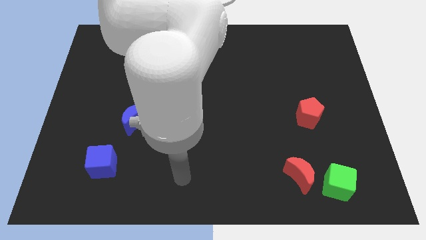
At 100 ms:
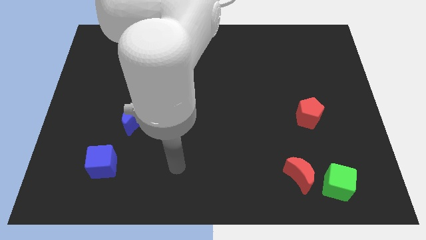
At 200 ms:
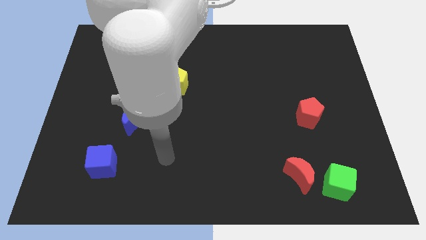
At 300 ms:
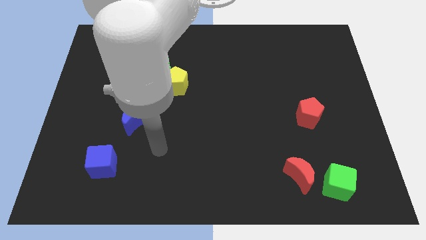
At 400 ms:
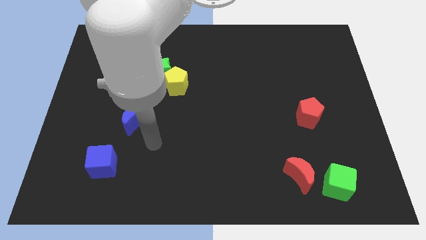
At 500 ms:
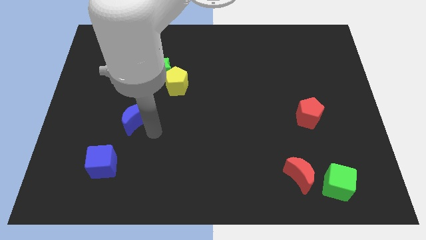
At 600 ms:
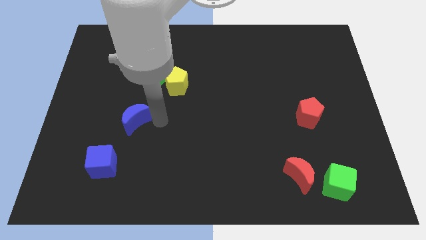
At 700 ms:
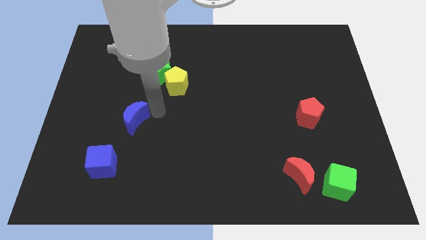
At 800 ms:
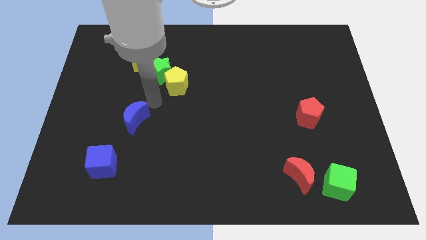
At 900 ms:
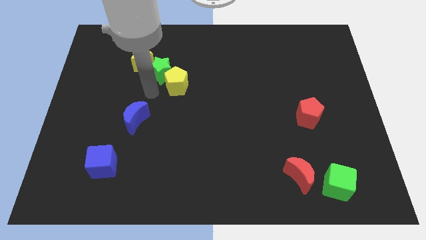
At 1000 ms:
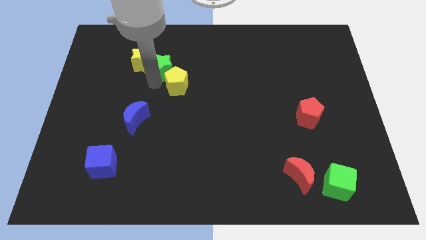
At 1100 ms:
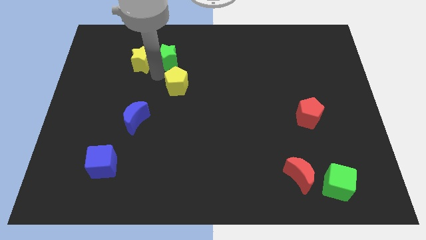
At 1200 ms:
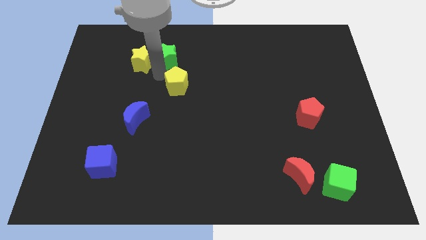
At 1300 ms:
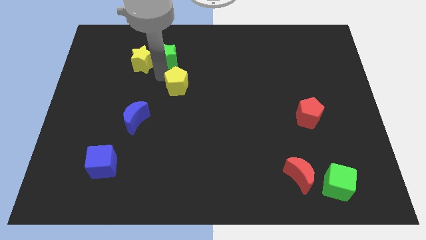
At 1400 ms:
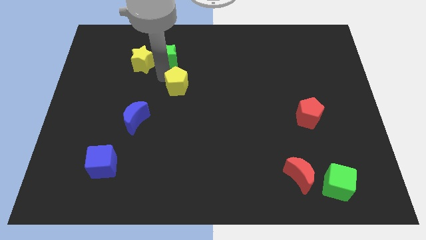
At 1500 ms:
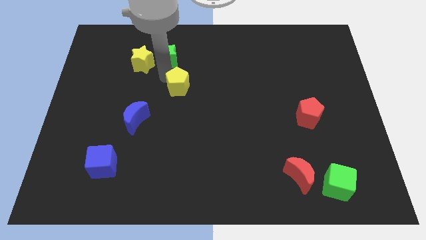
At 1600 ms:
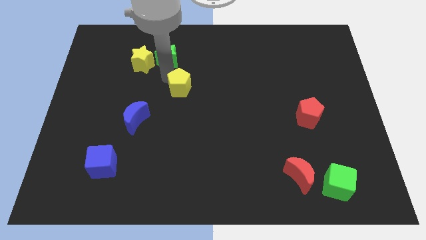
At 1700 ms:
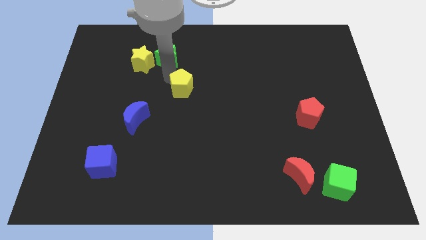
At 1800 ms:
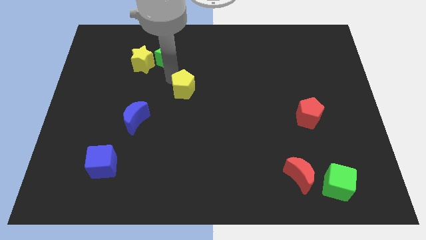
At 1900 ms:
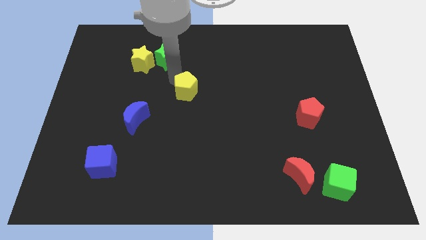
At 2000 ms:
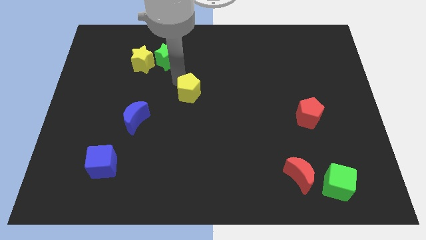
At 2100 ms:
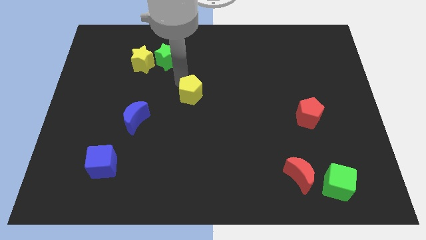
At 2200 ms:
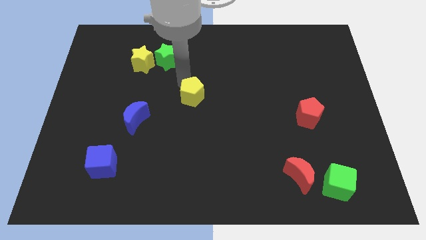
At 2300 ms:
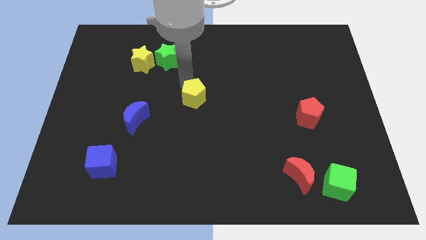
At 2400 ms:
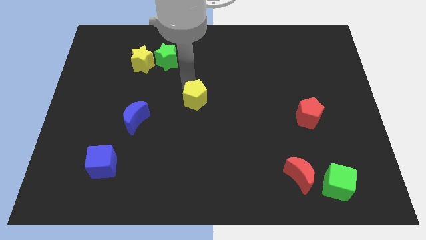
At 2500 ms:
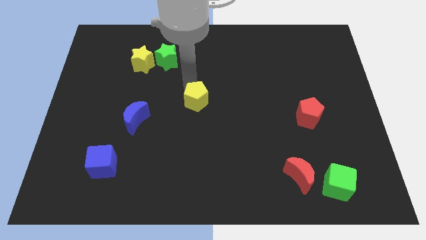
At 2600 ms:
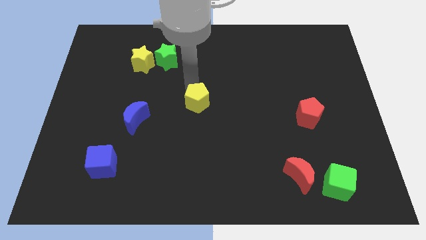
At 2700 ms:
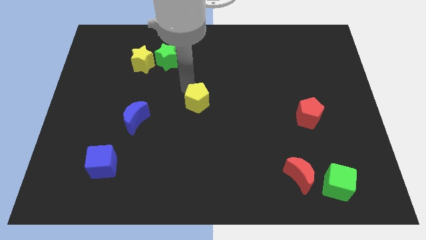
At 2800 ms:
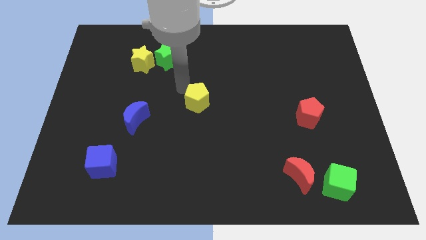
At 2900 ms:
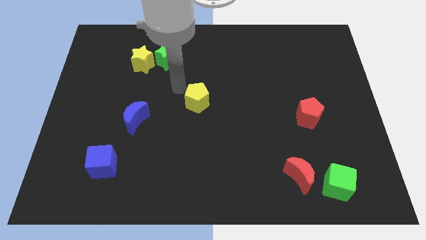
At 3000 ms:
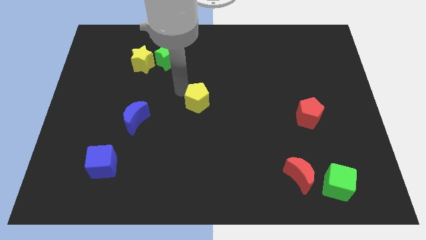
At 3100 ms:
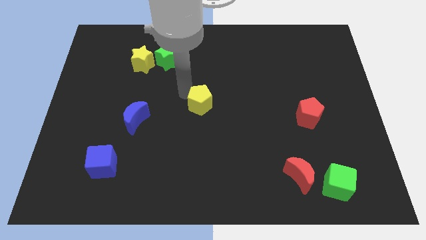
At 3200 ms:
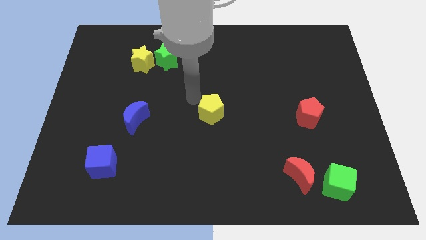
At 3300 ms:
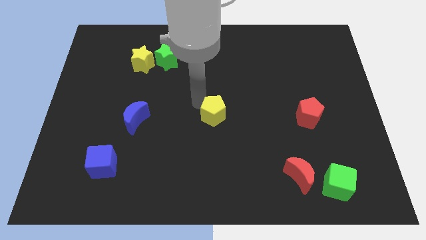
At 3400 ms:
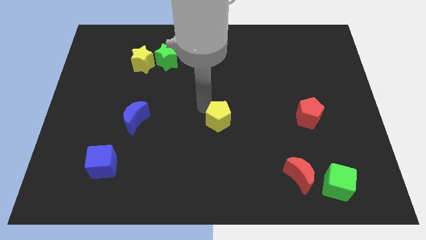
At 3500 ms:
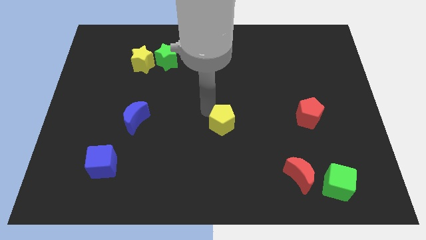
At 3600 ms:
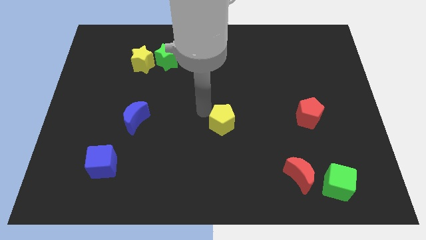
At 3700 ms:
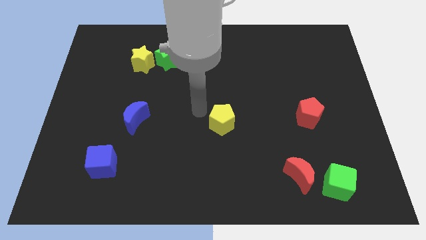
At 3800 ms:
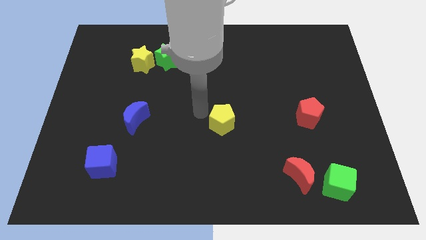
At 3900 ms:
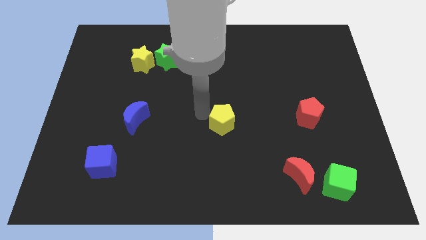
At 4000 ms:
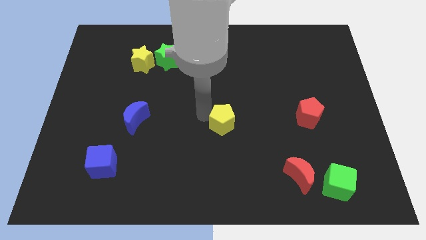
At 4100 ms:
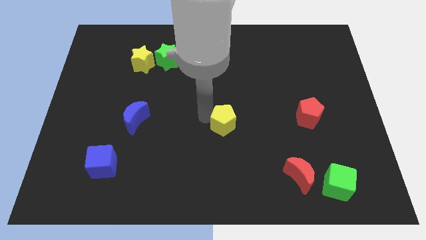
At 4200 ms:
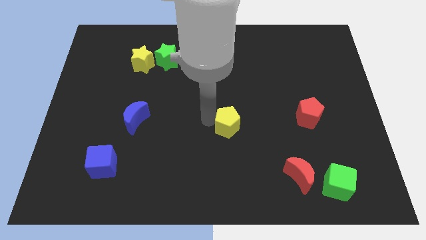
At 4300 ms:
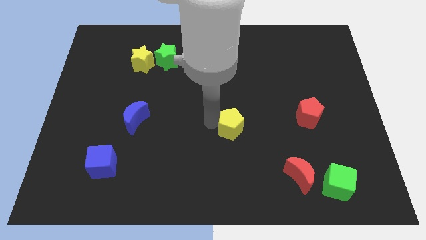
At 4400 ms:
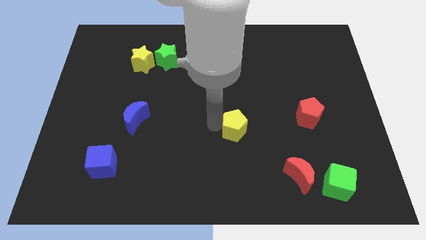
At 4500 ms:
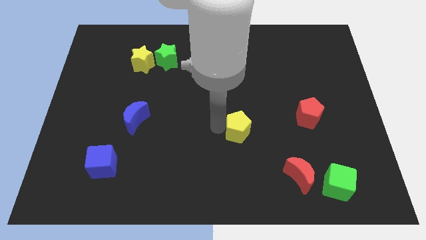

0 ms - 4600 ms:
slide the yellow pentagon down and right

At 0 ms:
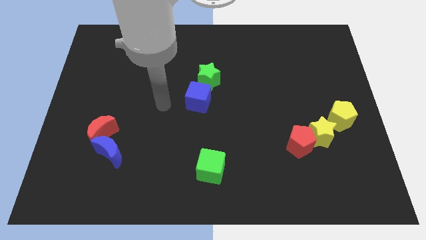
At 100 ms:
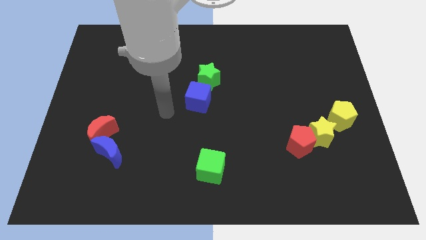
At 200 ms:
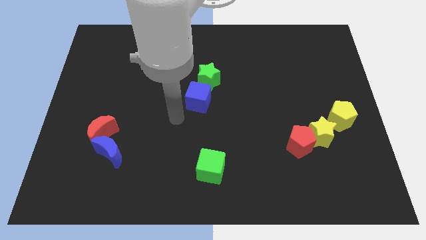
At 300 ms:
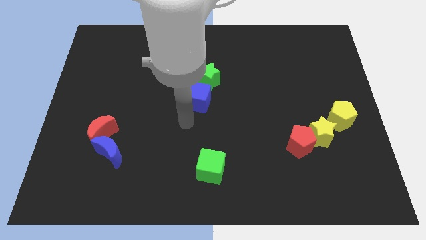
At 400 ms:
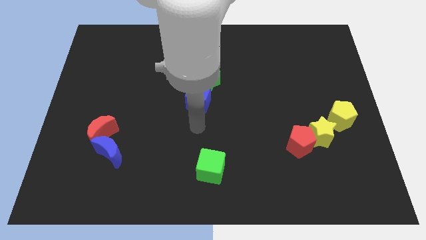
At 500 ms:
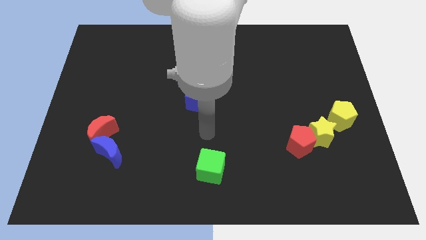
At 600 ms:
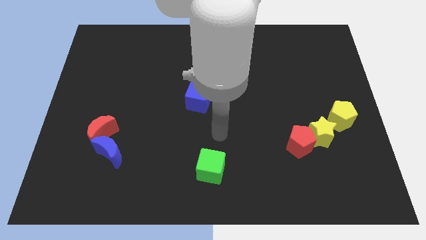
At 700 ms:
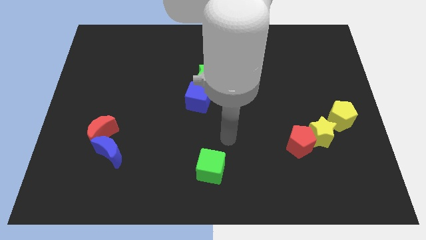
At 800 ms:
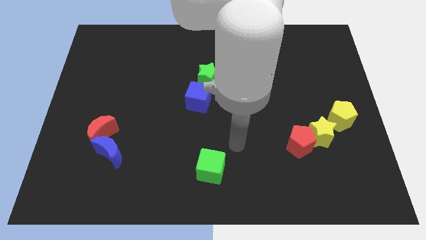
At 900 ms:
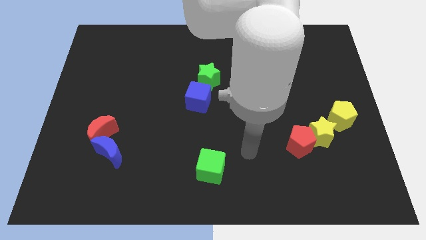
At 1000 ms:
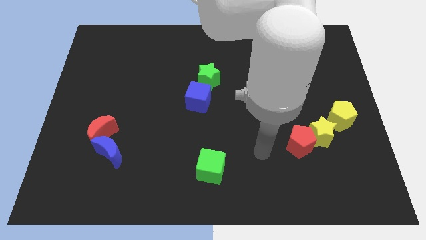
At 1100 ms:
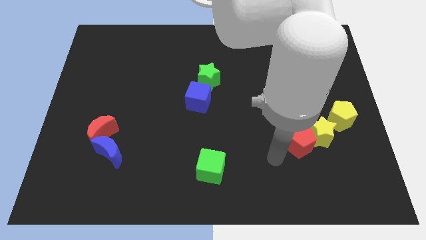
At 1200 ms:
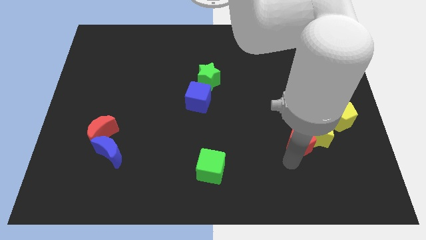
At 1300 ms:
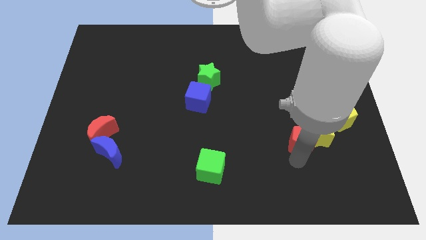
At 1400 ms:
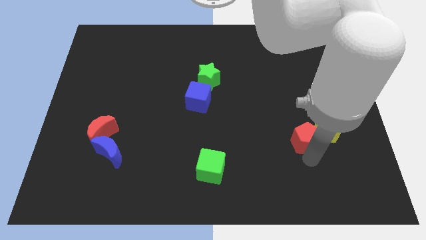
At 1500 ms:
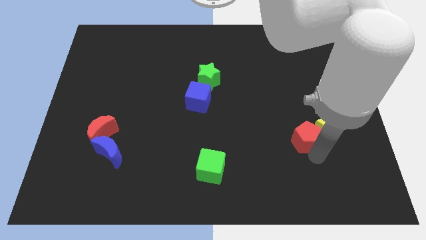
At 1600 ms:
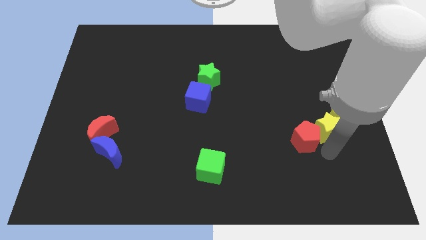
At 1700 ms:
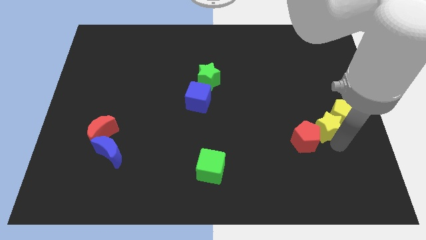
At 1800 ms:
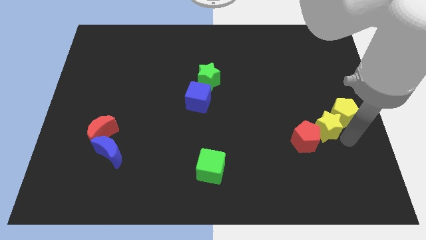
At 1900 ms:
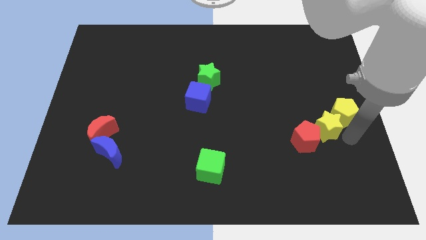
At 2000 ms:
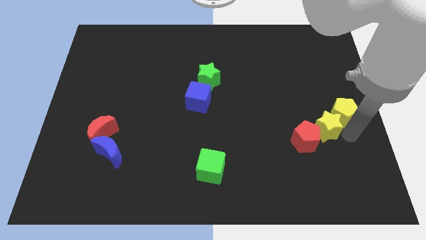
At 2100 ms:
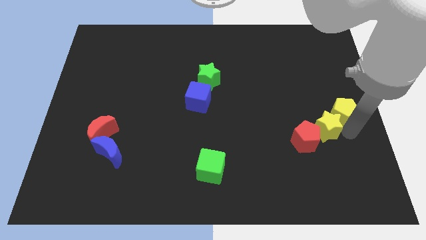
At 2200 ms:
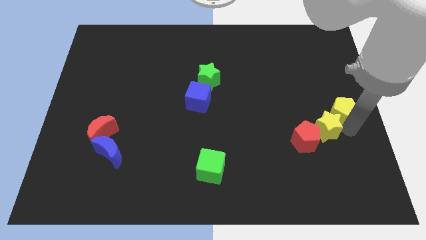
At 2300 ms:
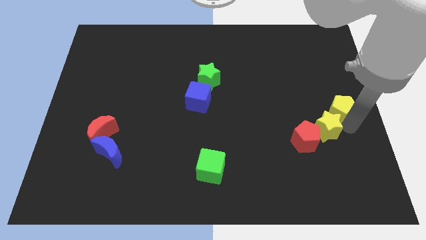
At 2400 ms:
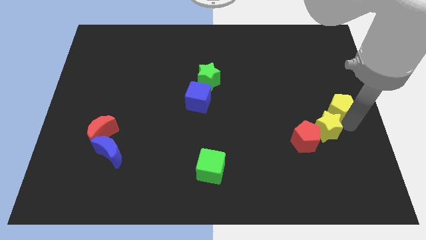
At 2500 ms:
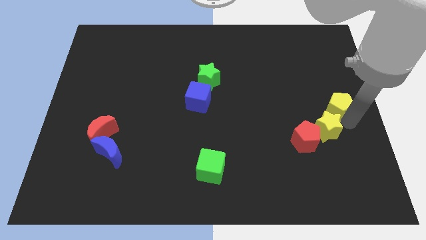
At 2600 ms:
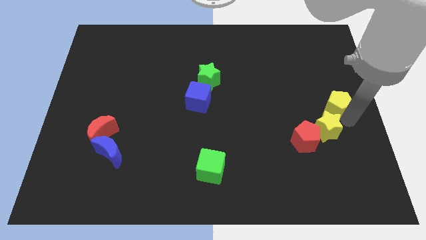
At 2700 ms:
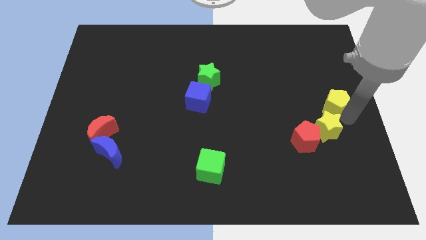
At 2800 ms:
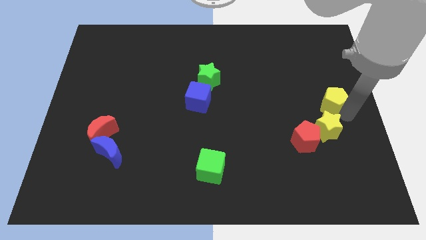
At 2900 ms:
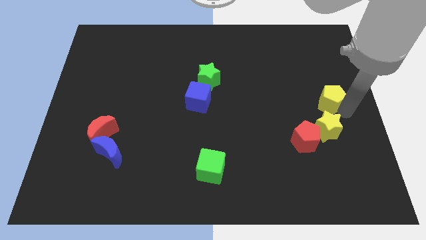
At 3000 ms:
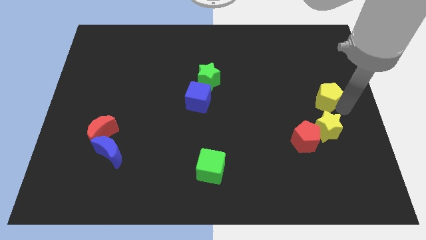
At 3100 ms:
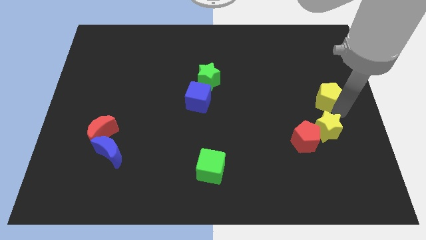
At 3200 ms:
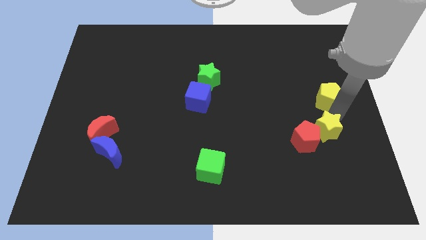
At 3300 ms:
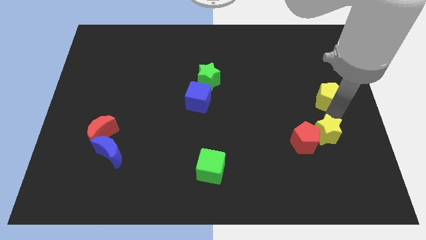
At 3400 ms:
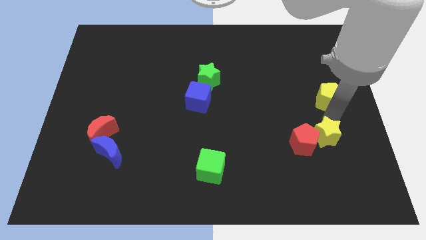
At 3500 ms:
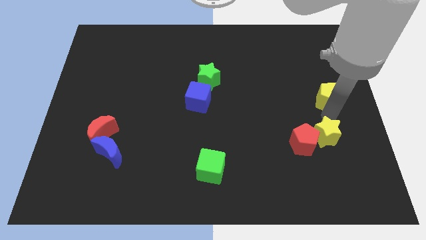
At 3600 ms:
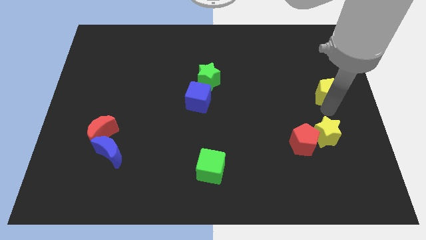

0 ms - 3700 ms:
push the yellow pentagon upwards somewhat

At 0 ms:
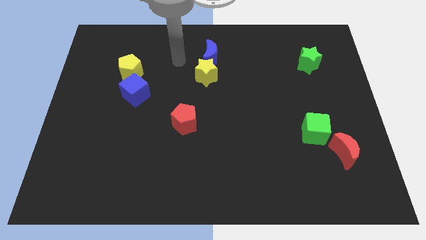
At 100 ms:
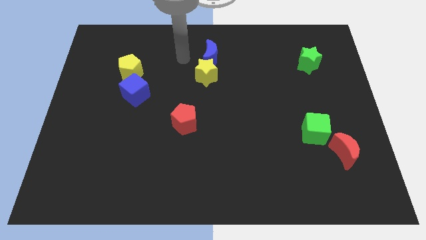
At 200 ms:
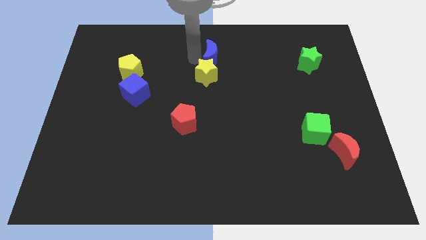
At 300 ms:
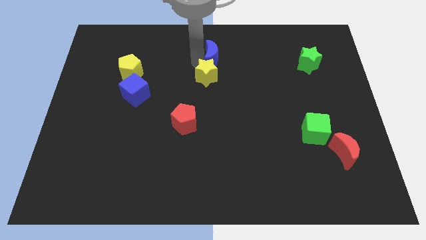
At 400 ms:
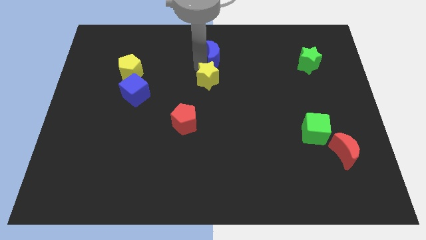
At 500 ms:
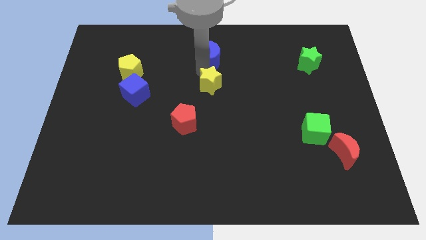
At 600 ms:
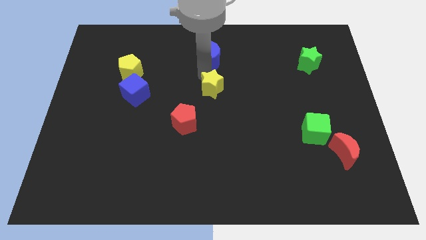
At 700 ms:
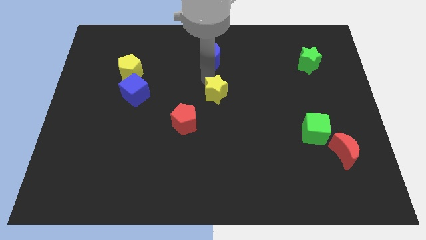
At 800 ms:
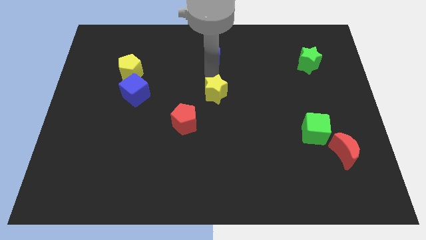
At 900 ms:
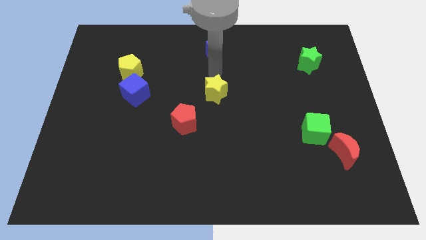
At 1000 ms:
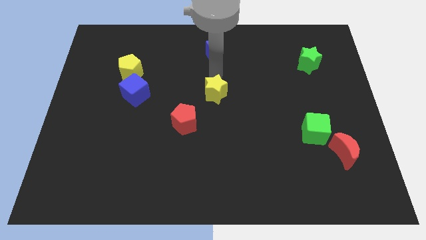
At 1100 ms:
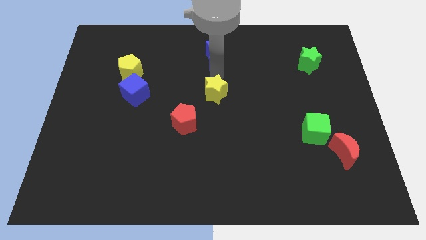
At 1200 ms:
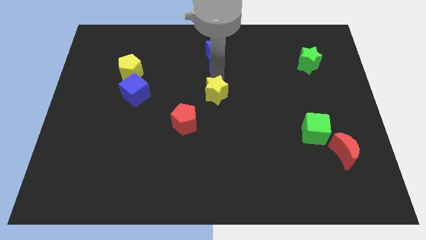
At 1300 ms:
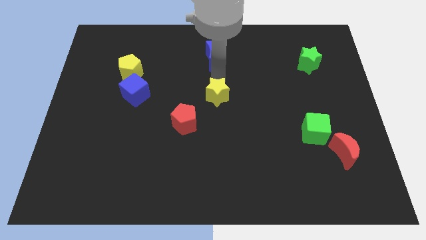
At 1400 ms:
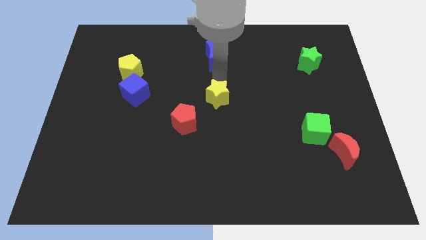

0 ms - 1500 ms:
slightly move the yellow star downwards
